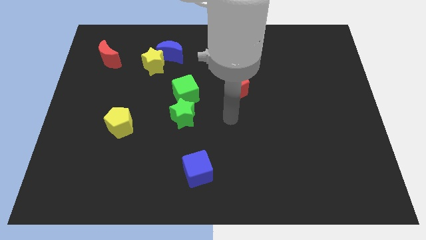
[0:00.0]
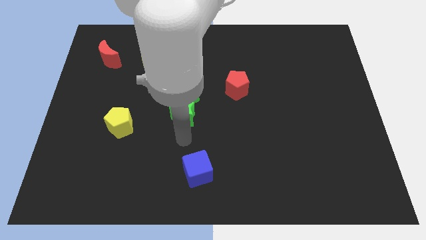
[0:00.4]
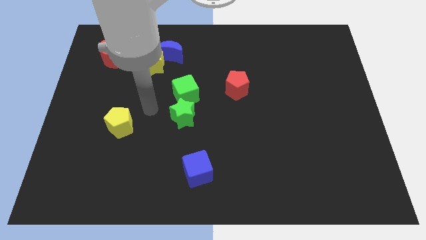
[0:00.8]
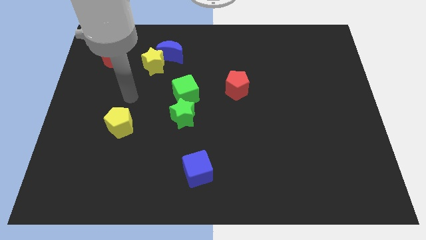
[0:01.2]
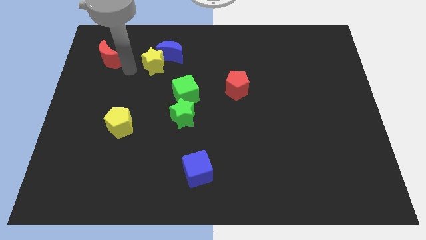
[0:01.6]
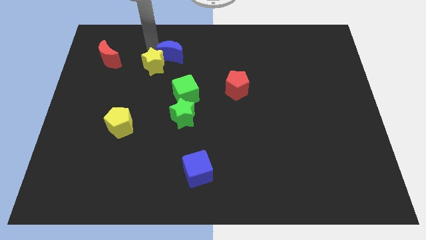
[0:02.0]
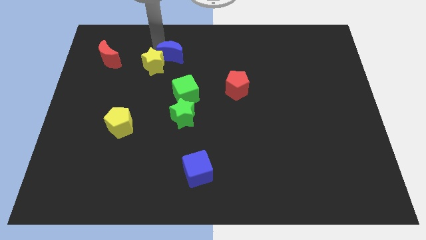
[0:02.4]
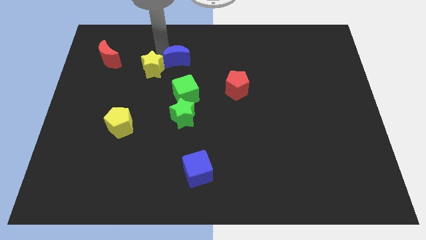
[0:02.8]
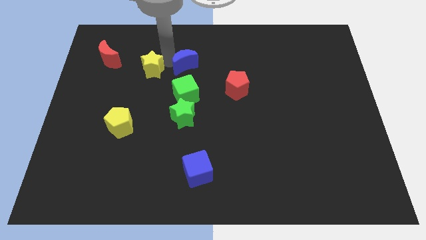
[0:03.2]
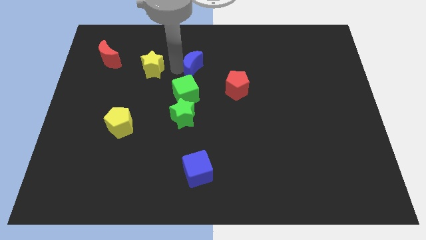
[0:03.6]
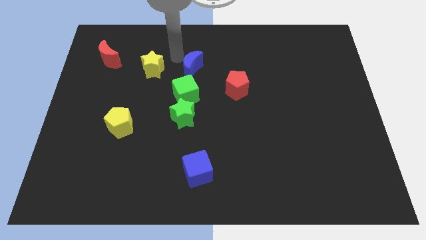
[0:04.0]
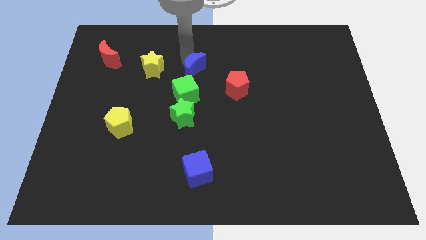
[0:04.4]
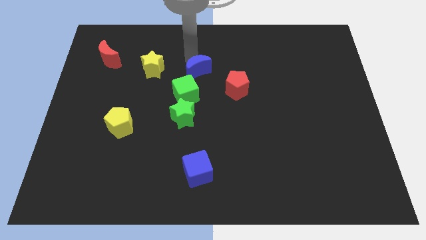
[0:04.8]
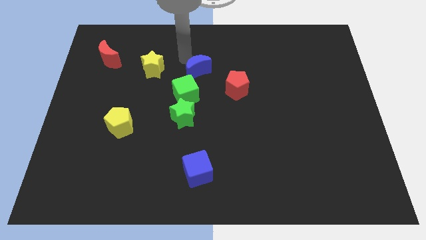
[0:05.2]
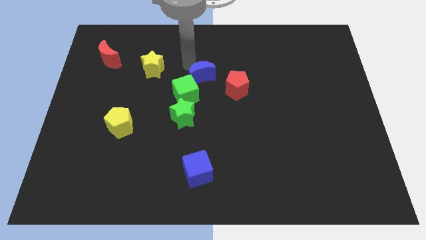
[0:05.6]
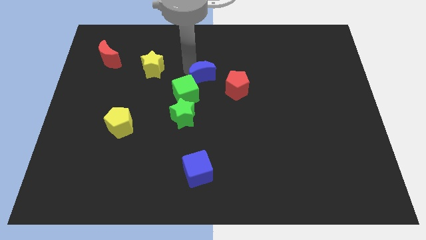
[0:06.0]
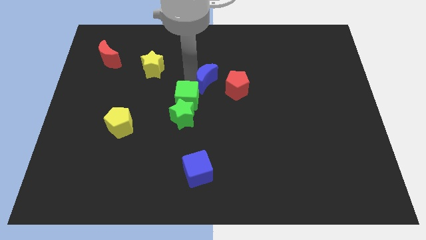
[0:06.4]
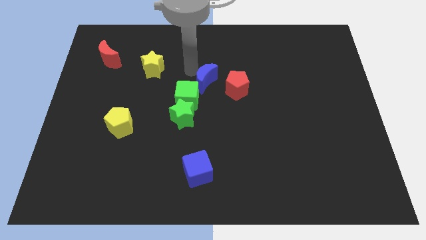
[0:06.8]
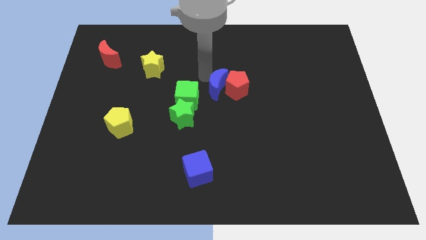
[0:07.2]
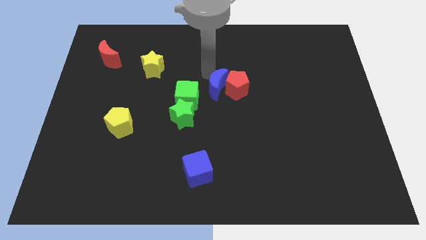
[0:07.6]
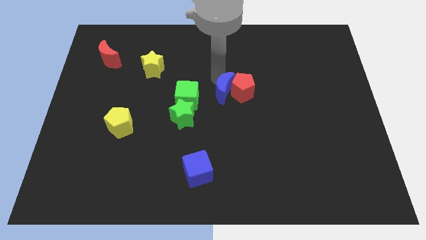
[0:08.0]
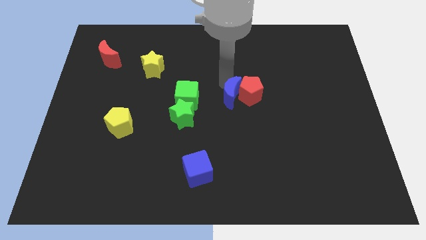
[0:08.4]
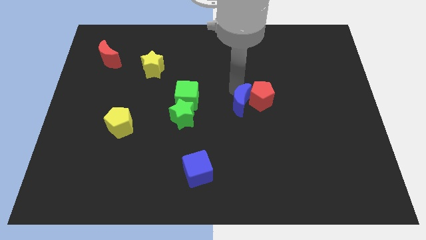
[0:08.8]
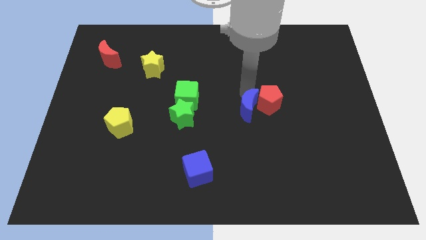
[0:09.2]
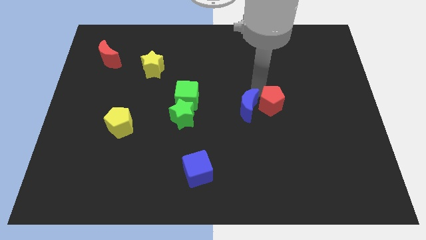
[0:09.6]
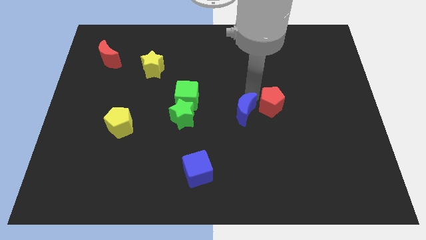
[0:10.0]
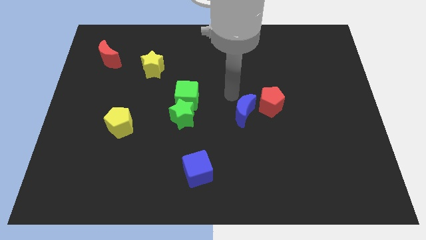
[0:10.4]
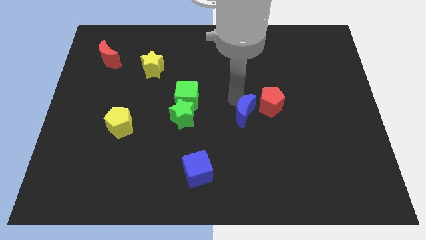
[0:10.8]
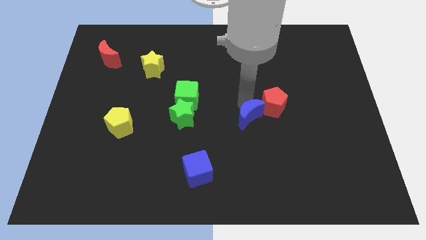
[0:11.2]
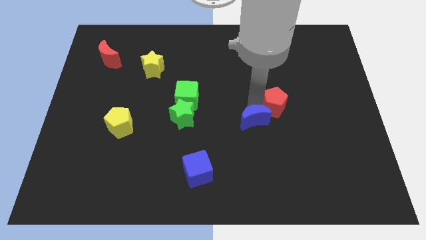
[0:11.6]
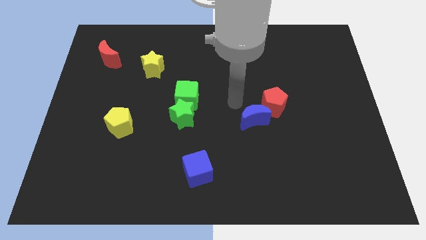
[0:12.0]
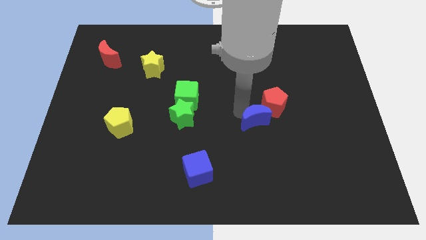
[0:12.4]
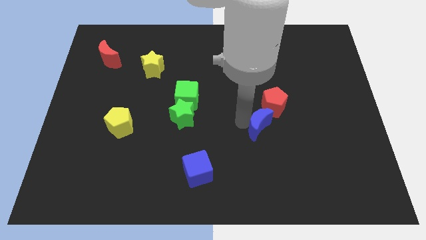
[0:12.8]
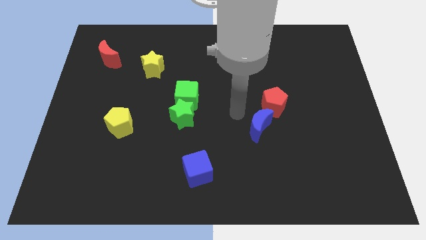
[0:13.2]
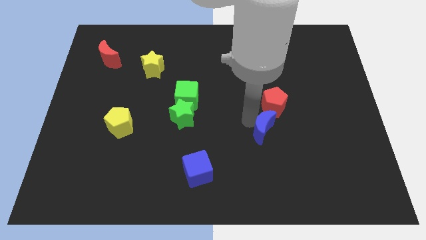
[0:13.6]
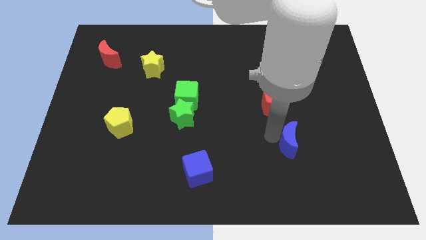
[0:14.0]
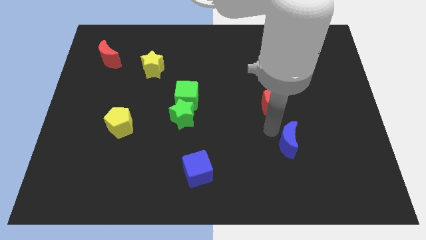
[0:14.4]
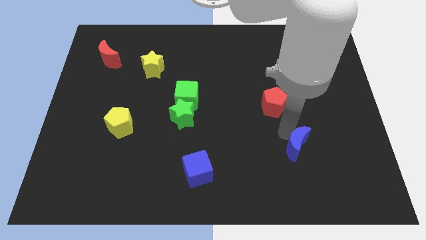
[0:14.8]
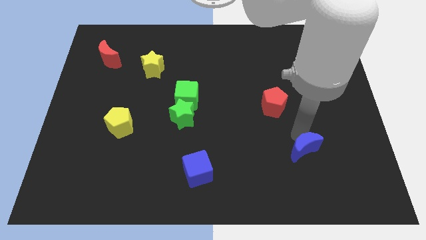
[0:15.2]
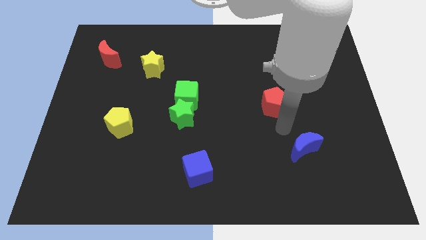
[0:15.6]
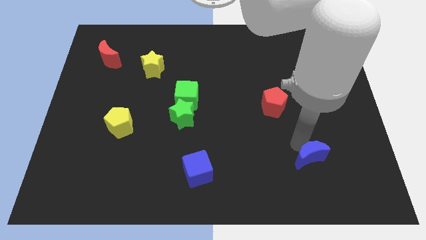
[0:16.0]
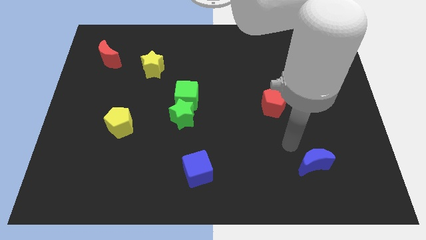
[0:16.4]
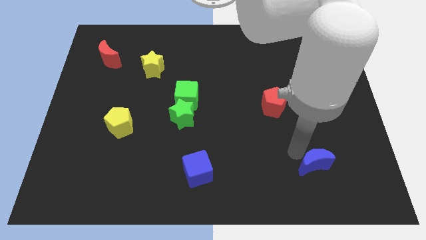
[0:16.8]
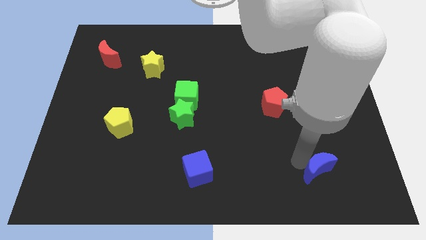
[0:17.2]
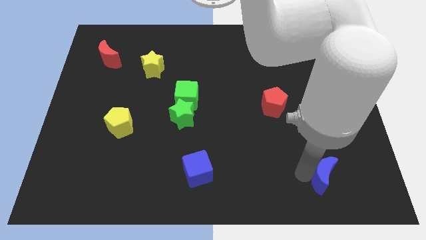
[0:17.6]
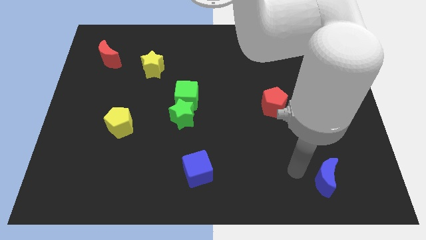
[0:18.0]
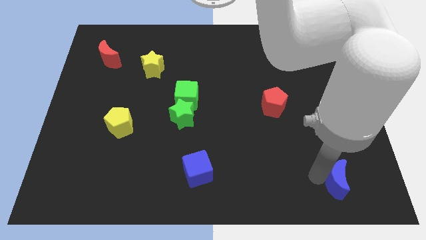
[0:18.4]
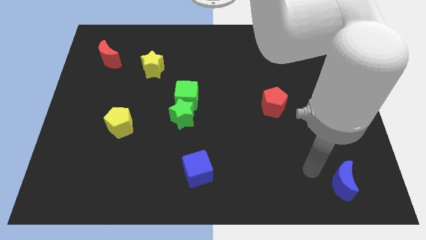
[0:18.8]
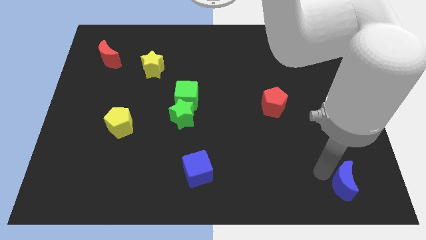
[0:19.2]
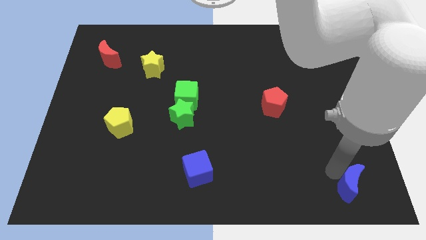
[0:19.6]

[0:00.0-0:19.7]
push the blue moon to the lower right corner

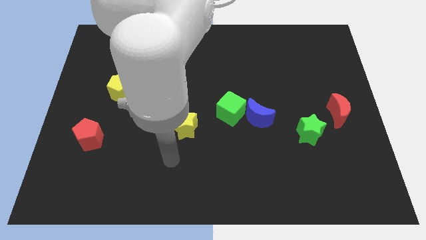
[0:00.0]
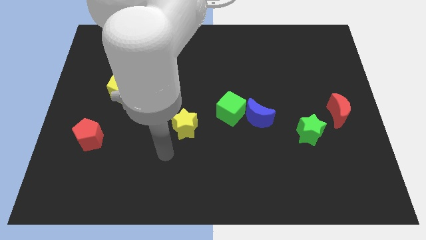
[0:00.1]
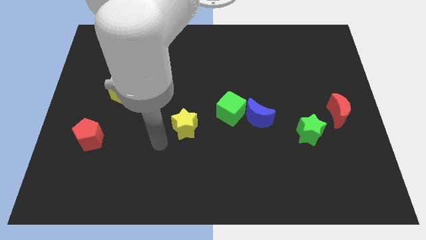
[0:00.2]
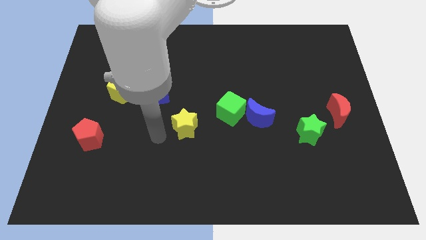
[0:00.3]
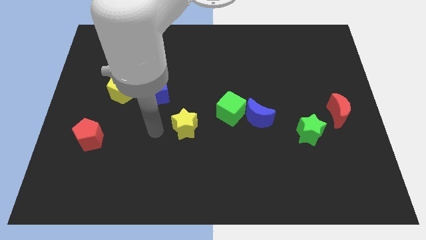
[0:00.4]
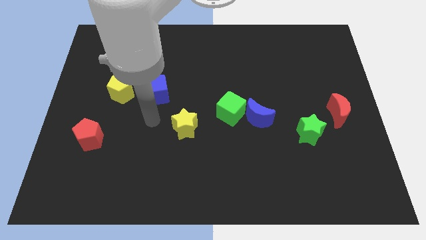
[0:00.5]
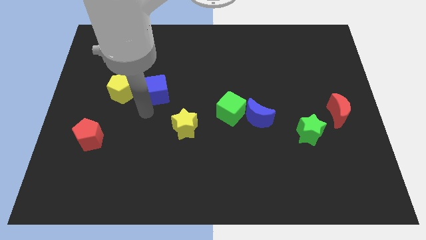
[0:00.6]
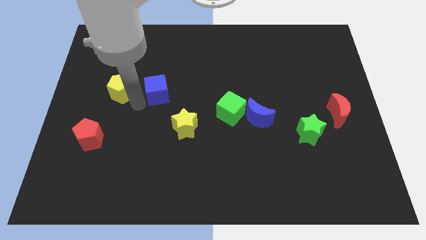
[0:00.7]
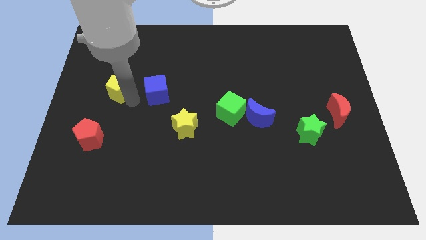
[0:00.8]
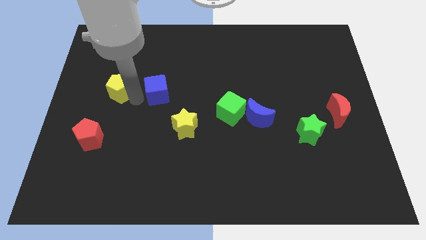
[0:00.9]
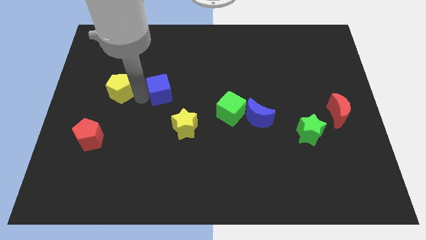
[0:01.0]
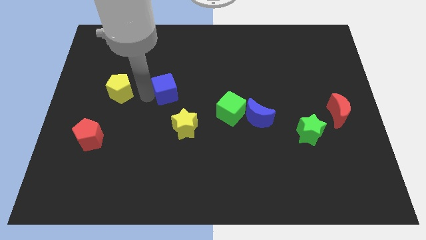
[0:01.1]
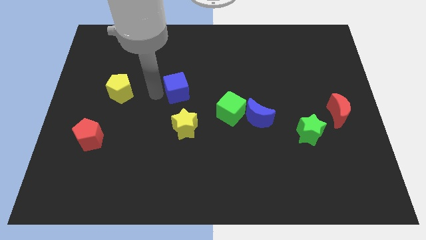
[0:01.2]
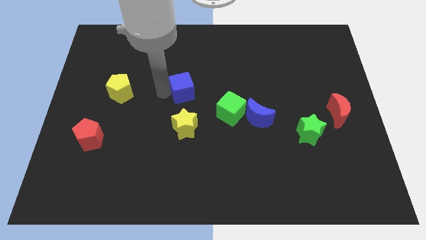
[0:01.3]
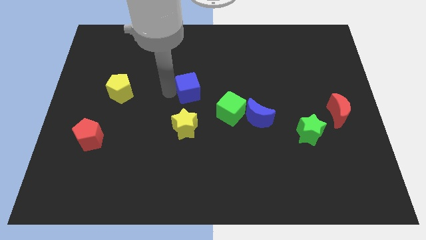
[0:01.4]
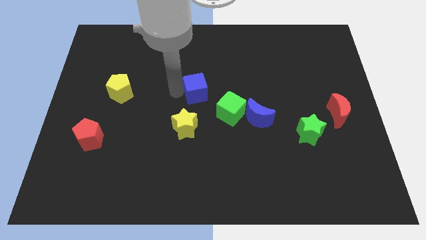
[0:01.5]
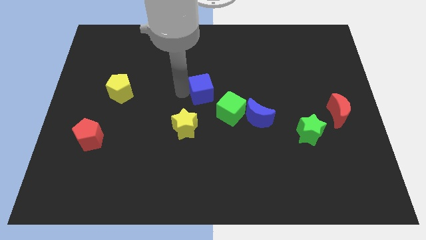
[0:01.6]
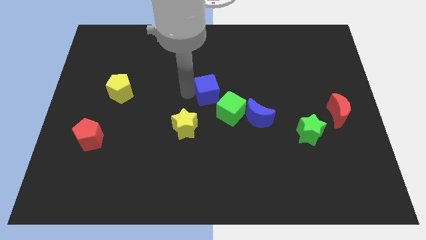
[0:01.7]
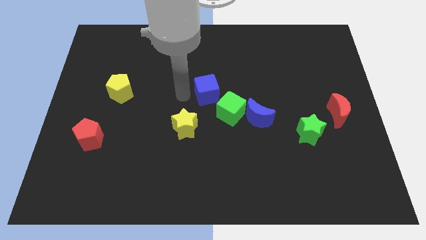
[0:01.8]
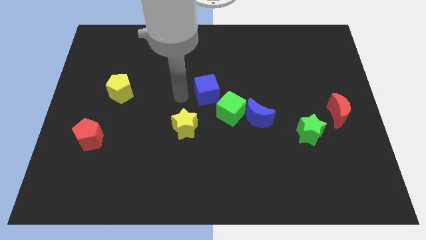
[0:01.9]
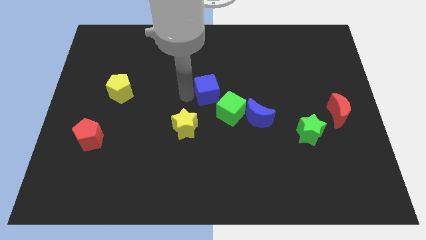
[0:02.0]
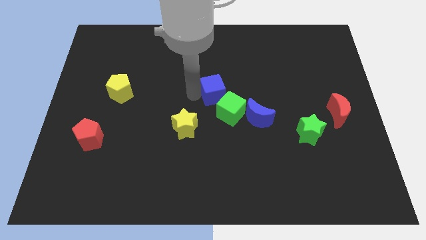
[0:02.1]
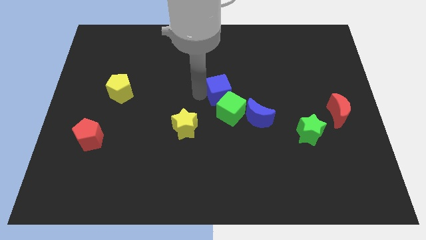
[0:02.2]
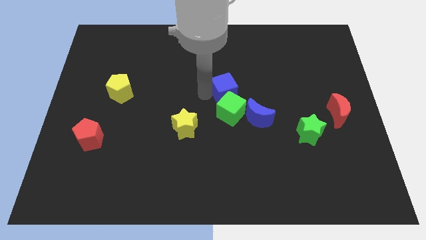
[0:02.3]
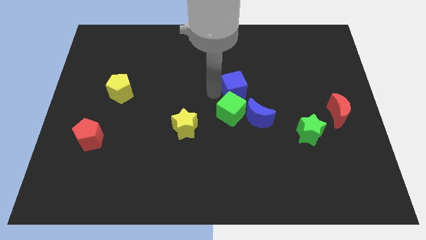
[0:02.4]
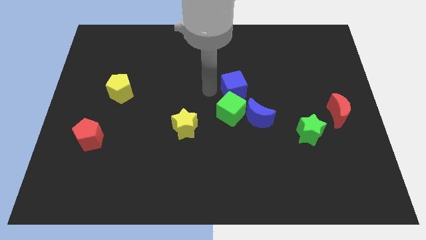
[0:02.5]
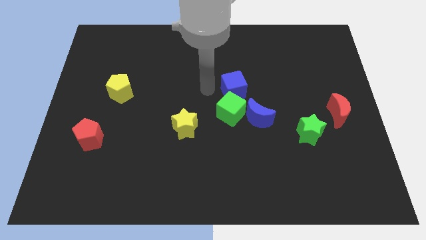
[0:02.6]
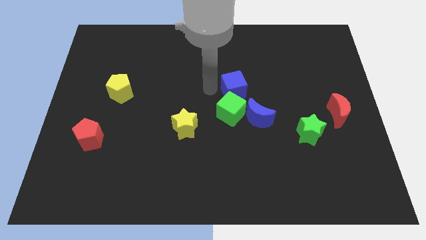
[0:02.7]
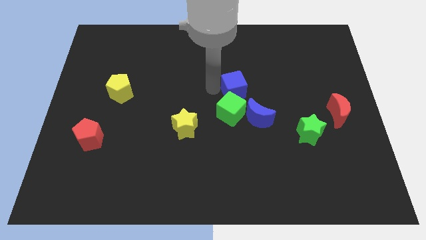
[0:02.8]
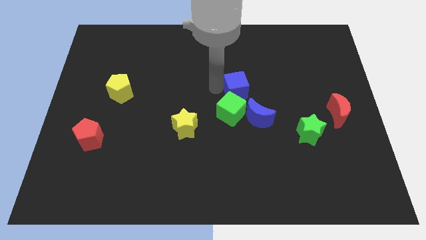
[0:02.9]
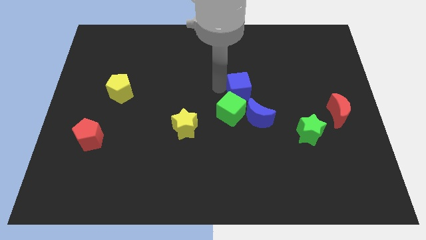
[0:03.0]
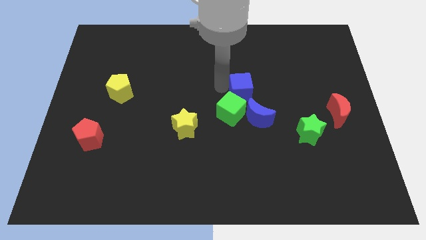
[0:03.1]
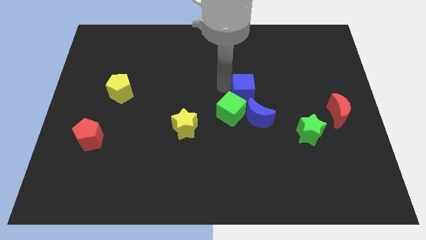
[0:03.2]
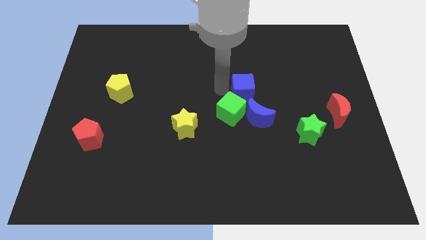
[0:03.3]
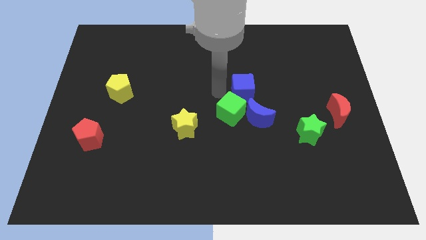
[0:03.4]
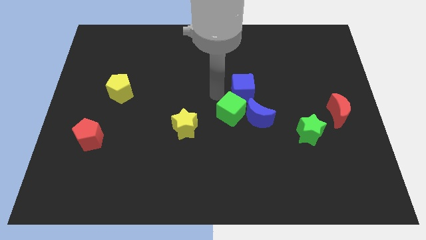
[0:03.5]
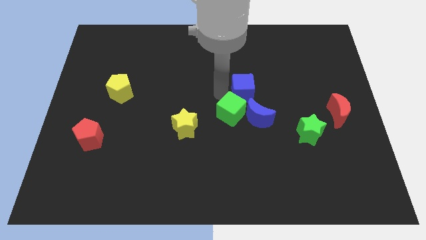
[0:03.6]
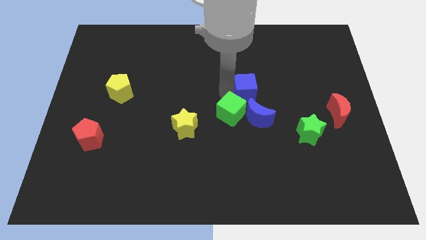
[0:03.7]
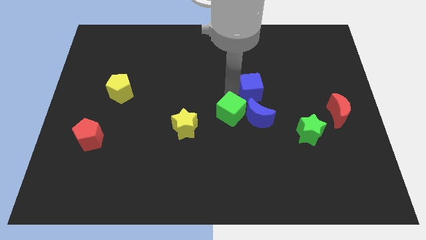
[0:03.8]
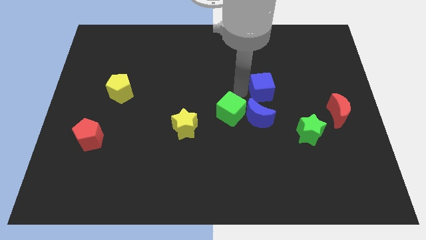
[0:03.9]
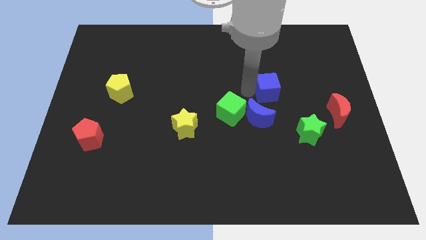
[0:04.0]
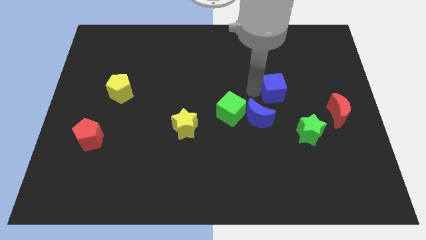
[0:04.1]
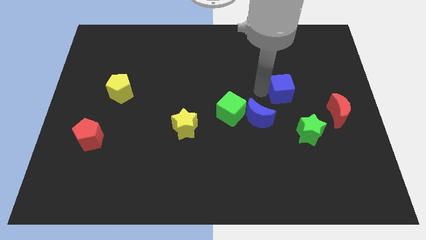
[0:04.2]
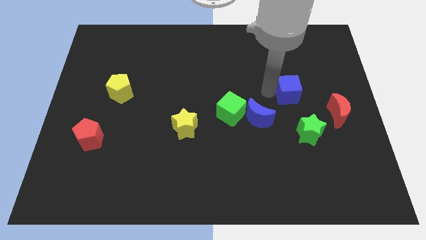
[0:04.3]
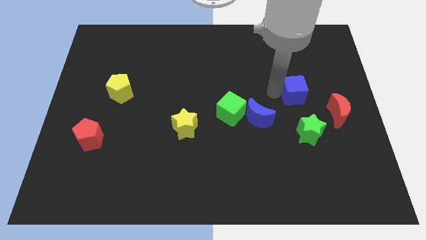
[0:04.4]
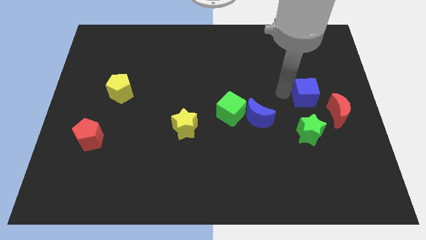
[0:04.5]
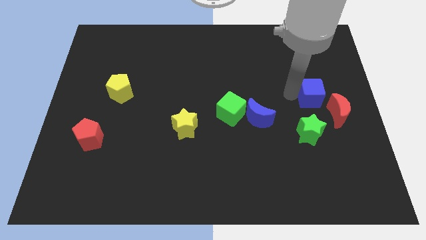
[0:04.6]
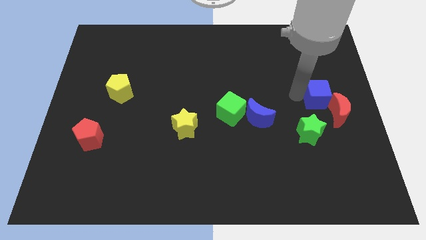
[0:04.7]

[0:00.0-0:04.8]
slide the blue cube to the right side
